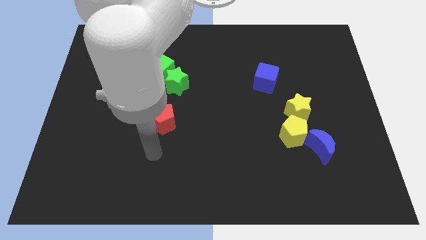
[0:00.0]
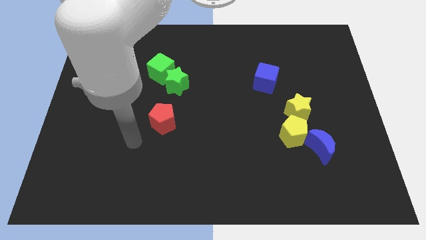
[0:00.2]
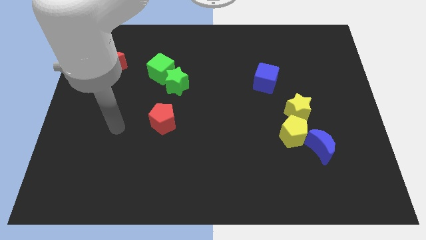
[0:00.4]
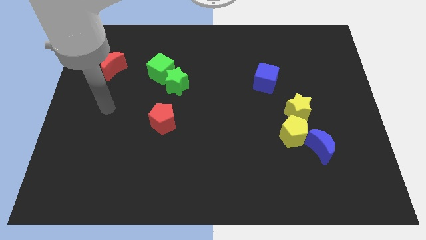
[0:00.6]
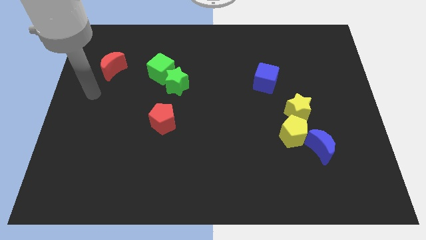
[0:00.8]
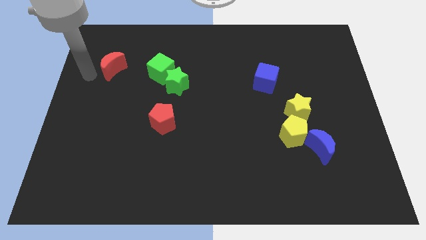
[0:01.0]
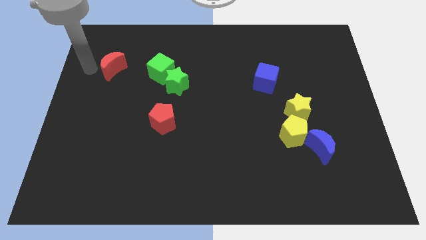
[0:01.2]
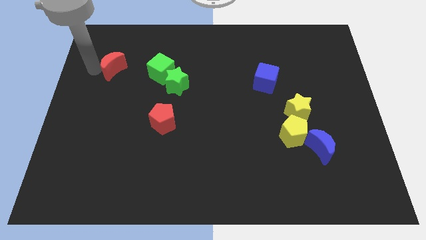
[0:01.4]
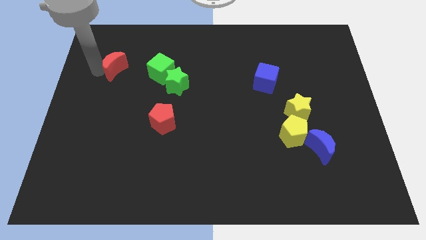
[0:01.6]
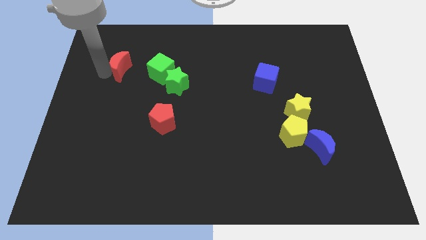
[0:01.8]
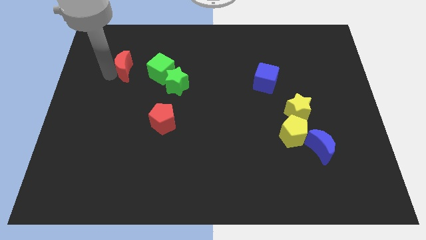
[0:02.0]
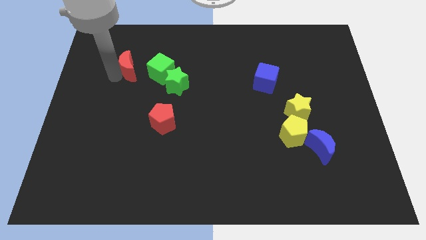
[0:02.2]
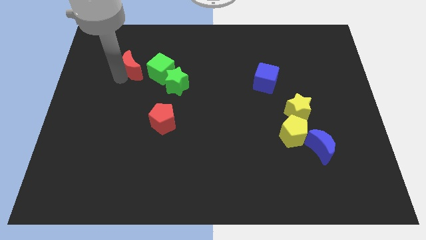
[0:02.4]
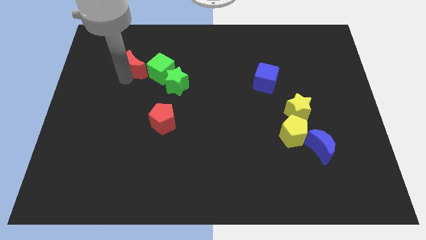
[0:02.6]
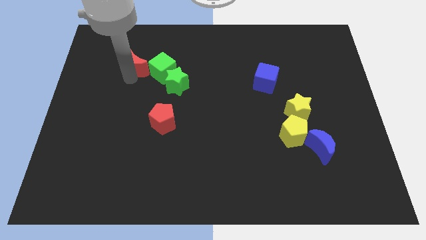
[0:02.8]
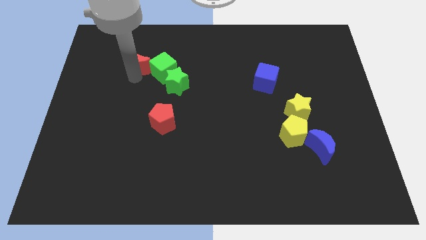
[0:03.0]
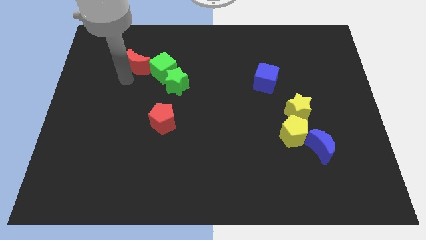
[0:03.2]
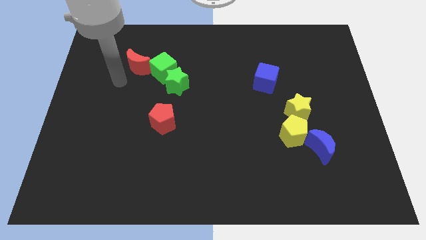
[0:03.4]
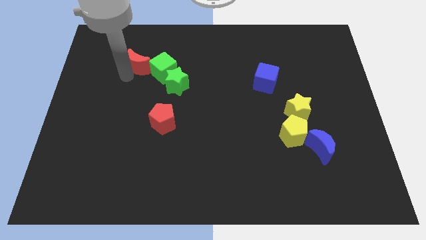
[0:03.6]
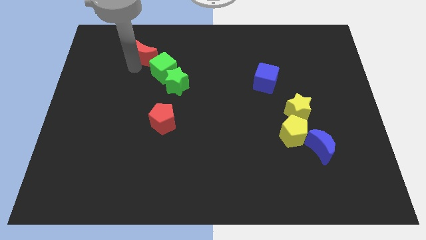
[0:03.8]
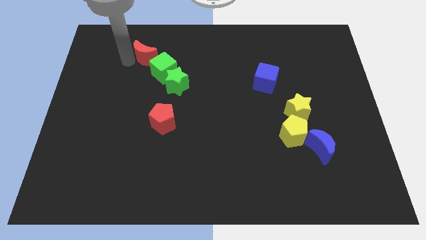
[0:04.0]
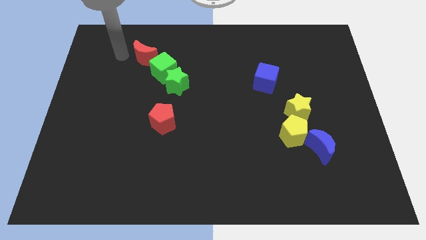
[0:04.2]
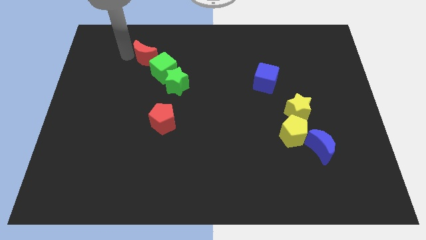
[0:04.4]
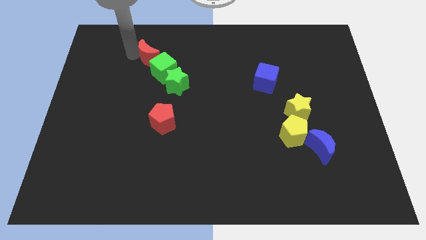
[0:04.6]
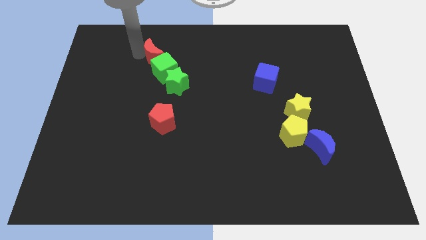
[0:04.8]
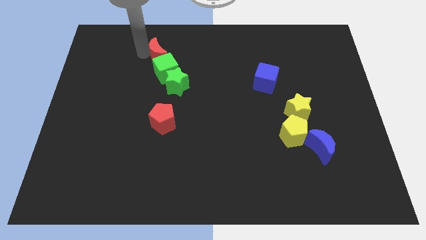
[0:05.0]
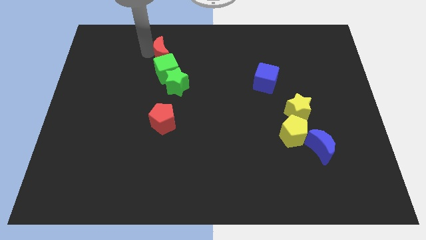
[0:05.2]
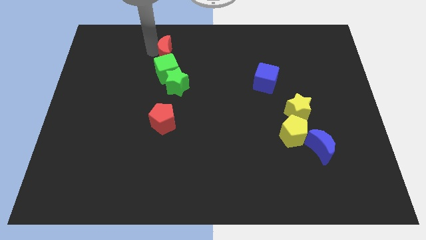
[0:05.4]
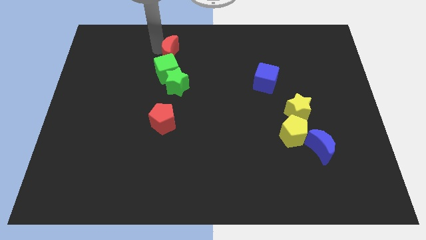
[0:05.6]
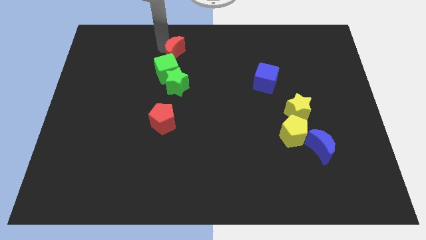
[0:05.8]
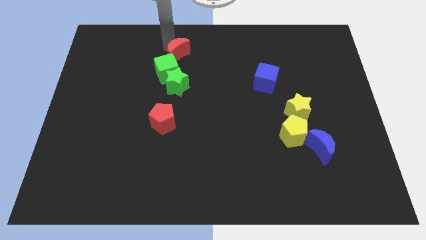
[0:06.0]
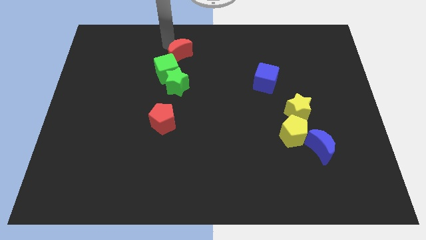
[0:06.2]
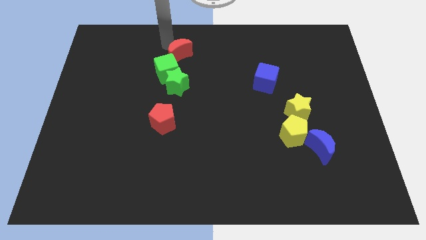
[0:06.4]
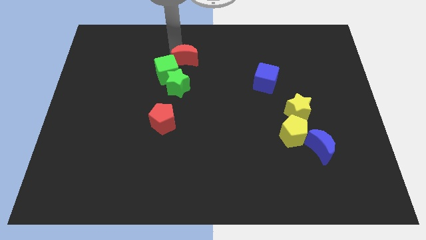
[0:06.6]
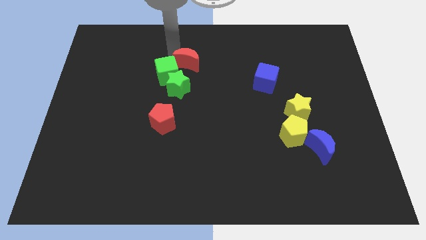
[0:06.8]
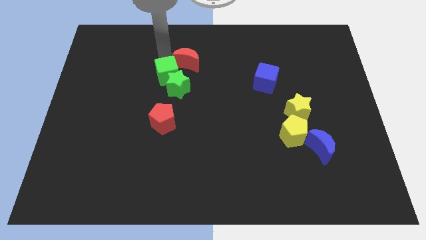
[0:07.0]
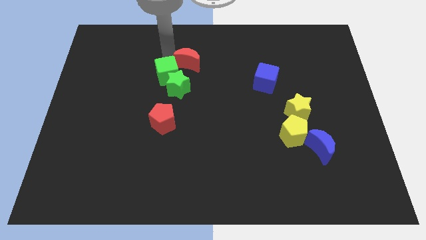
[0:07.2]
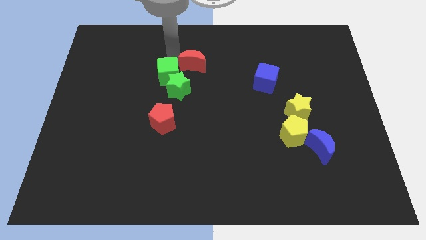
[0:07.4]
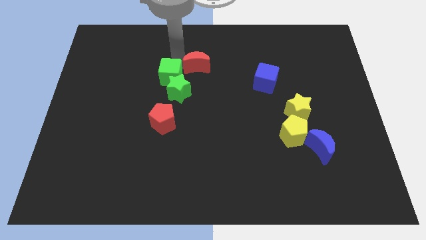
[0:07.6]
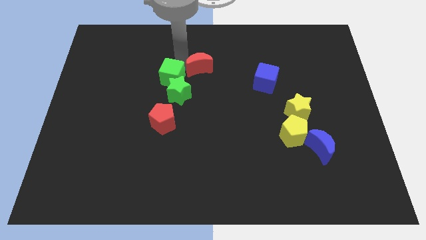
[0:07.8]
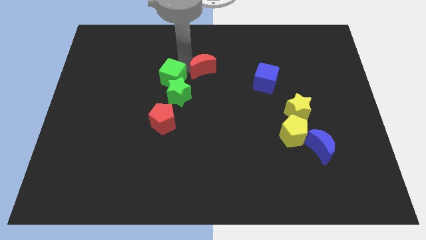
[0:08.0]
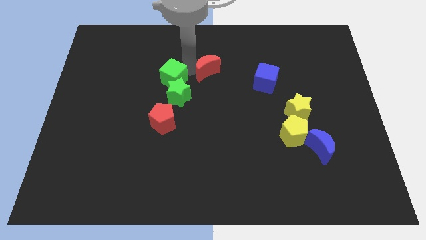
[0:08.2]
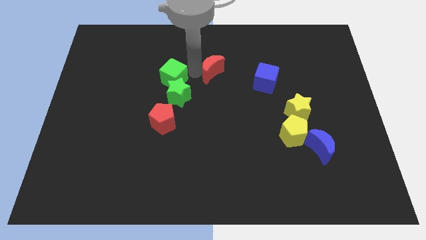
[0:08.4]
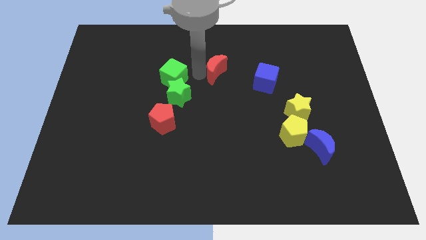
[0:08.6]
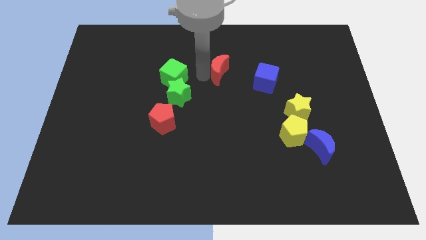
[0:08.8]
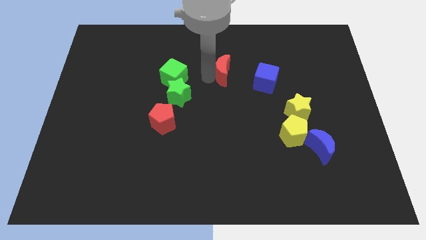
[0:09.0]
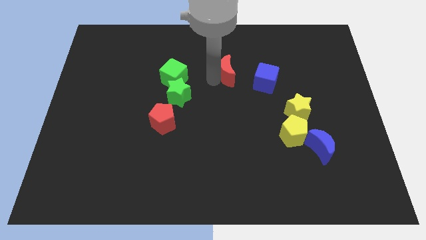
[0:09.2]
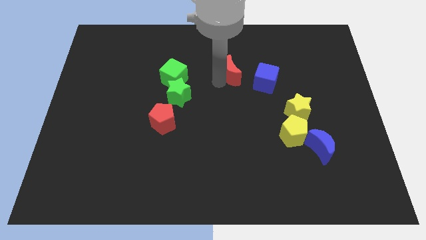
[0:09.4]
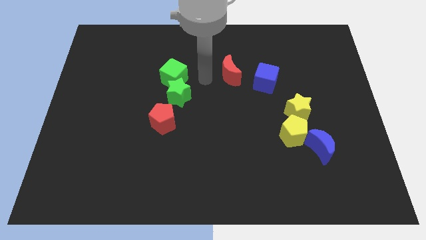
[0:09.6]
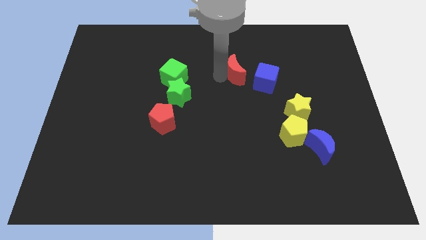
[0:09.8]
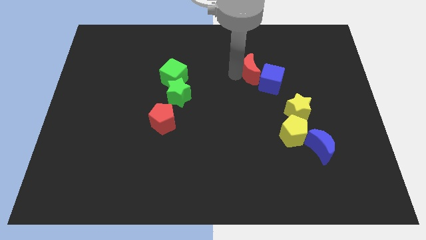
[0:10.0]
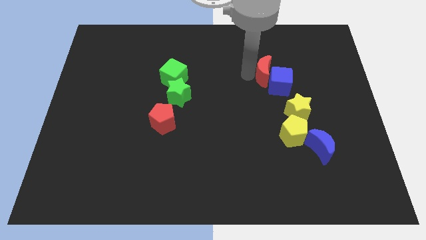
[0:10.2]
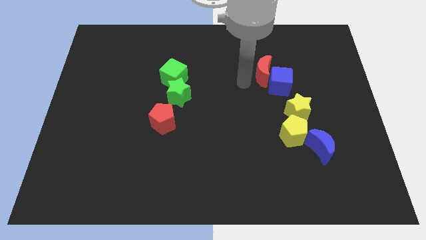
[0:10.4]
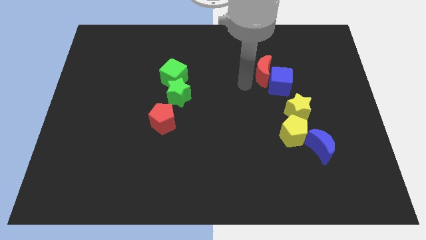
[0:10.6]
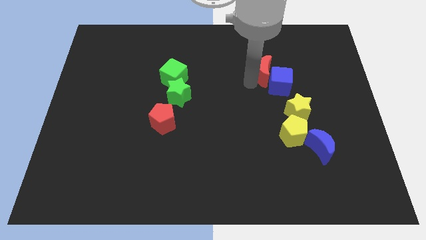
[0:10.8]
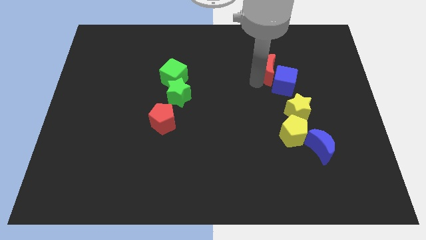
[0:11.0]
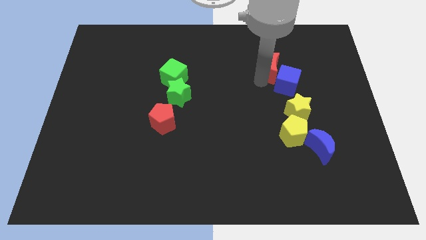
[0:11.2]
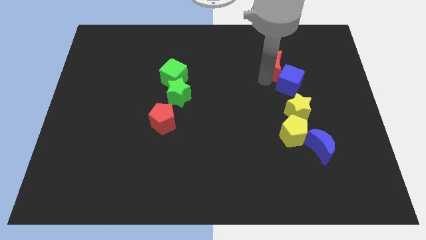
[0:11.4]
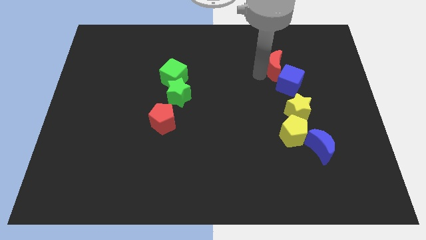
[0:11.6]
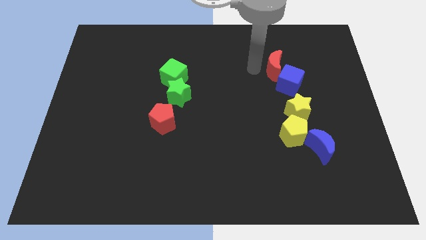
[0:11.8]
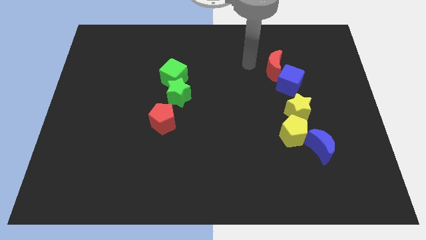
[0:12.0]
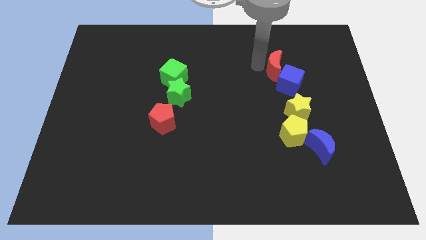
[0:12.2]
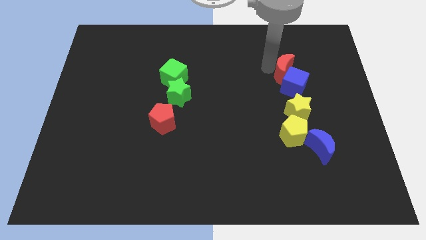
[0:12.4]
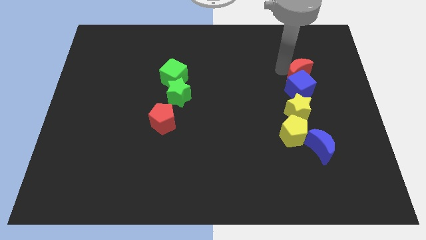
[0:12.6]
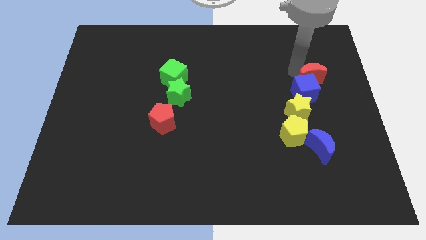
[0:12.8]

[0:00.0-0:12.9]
push the red moon to the top right of the yellow star

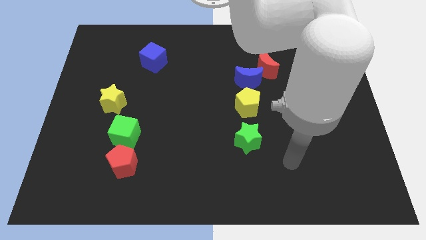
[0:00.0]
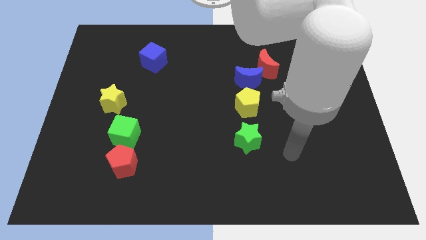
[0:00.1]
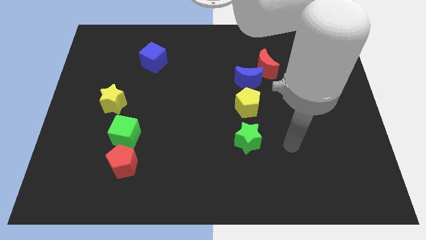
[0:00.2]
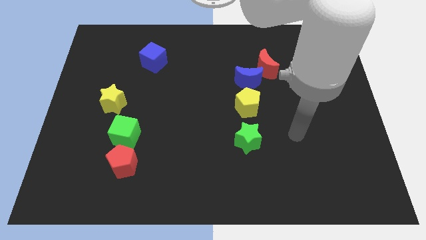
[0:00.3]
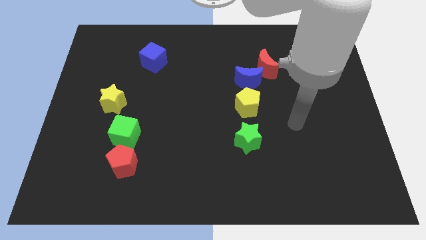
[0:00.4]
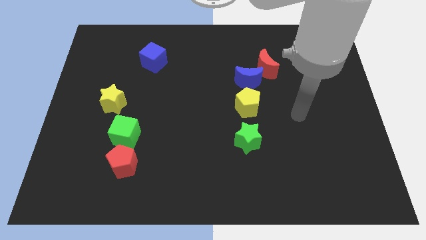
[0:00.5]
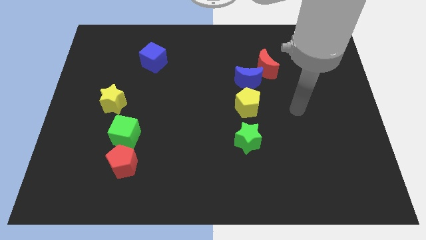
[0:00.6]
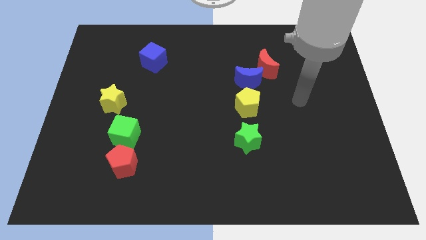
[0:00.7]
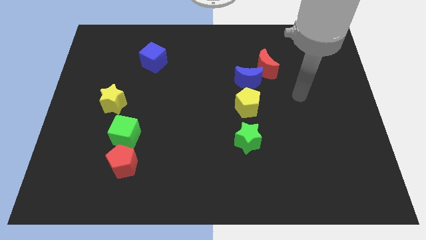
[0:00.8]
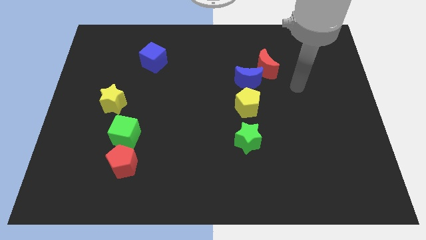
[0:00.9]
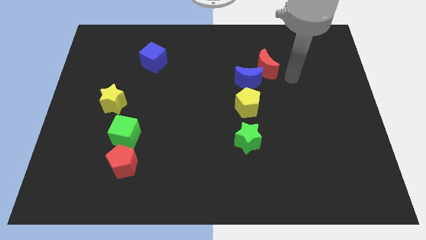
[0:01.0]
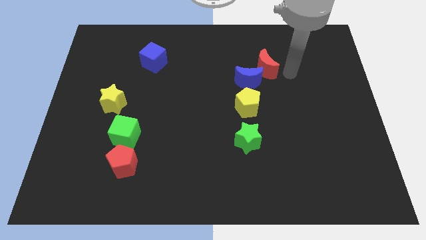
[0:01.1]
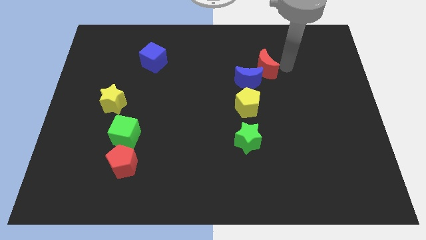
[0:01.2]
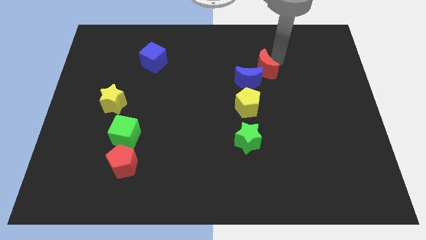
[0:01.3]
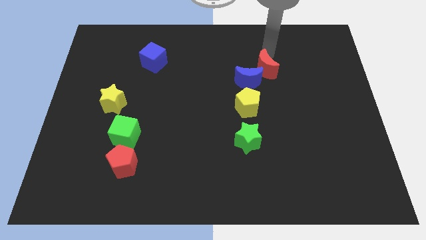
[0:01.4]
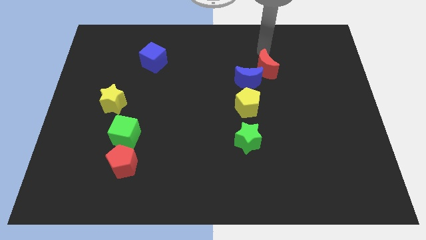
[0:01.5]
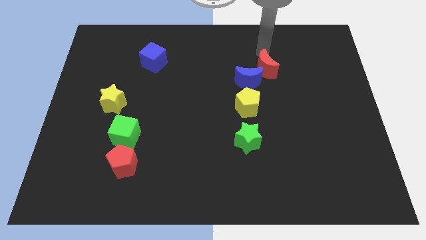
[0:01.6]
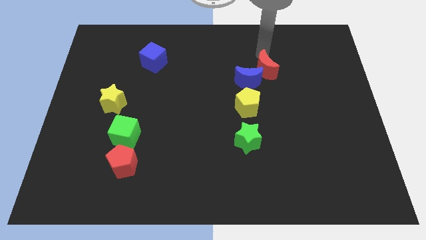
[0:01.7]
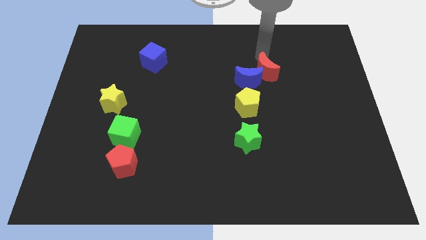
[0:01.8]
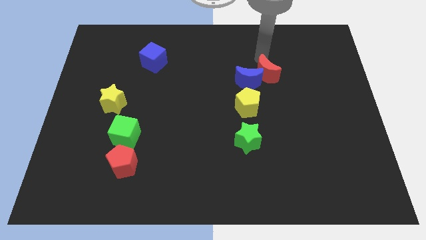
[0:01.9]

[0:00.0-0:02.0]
push the red moon to the top right of the yellow pentagon
